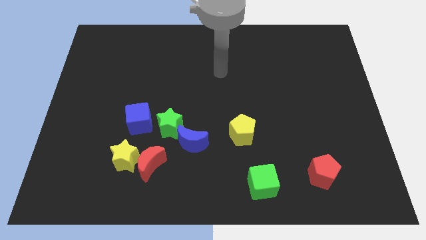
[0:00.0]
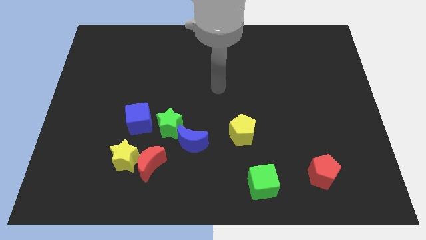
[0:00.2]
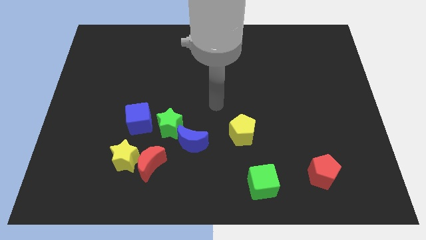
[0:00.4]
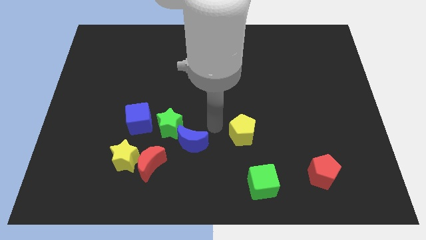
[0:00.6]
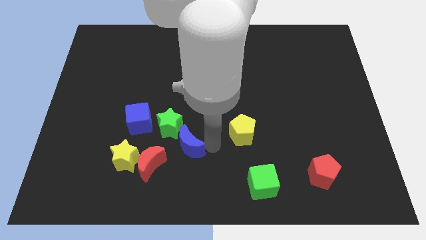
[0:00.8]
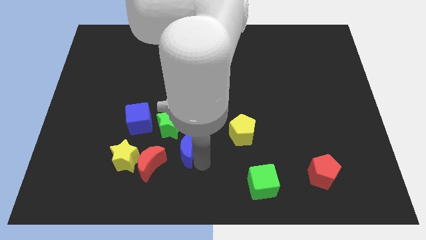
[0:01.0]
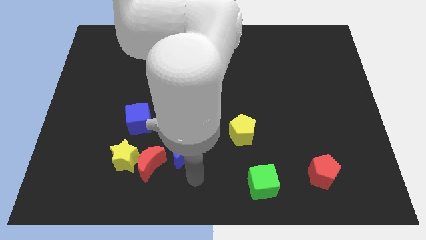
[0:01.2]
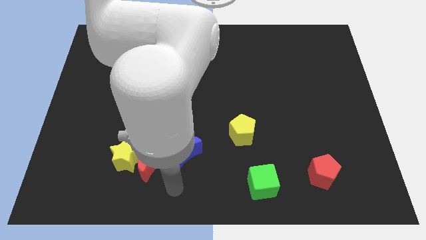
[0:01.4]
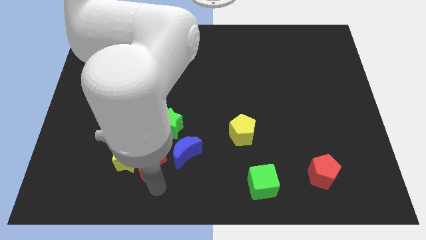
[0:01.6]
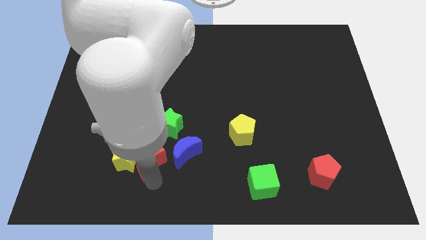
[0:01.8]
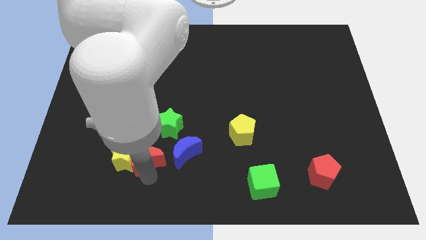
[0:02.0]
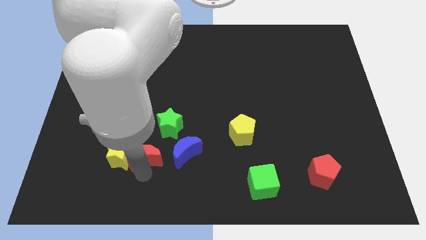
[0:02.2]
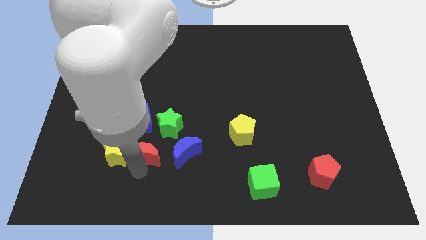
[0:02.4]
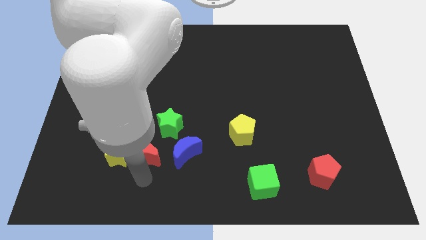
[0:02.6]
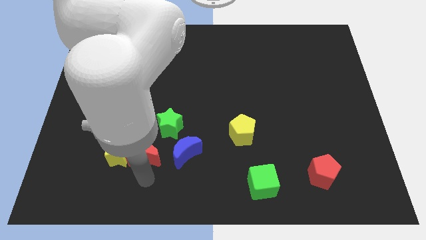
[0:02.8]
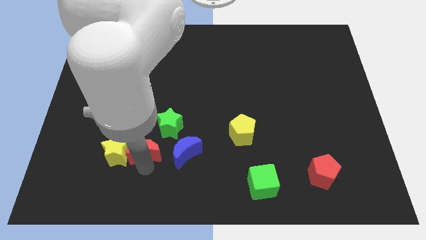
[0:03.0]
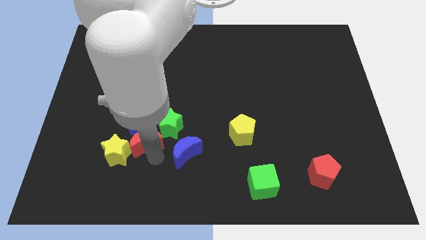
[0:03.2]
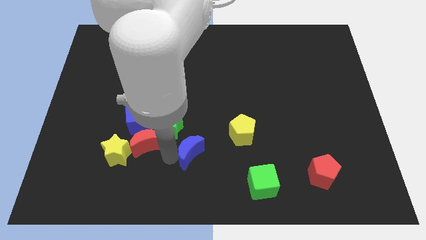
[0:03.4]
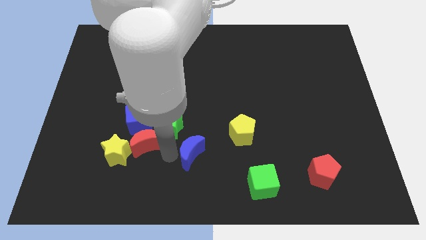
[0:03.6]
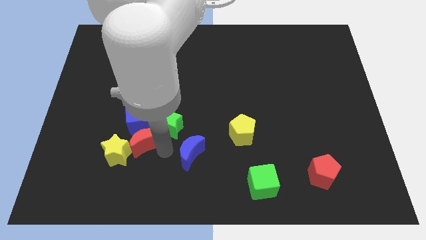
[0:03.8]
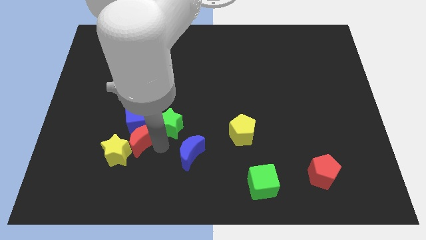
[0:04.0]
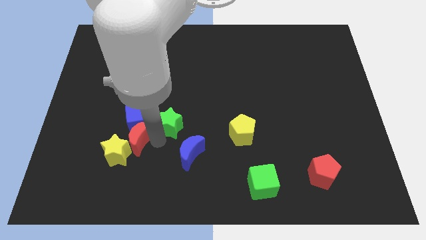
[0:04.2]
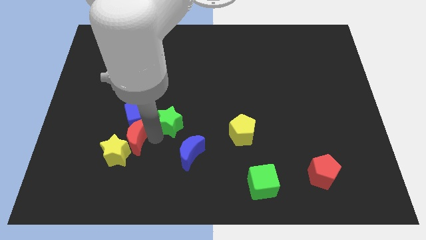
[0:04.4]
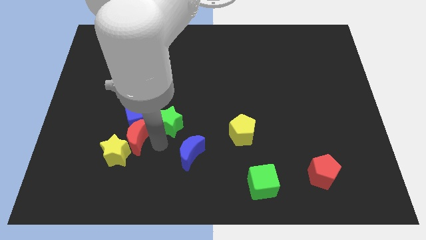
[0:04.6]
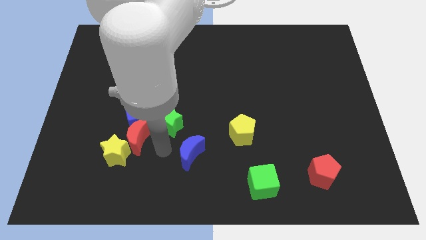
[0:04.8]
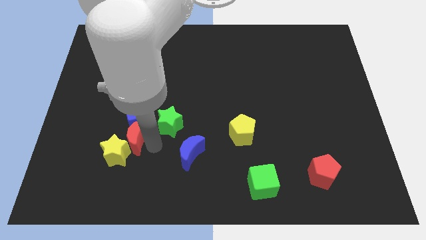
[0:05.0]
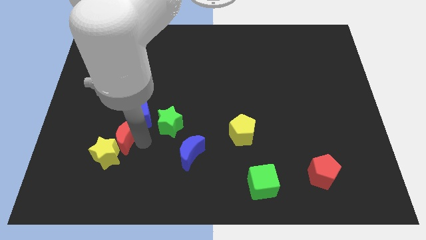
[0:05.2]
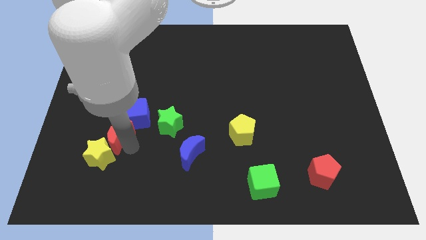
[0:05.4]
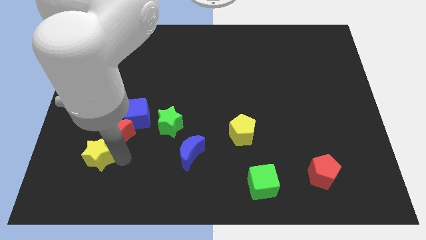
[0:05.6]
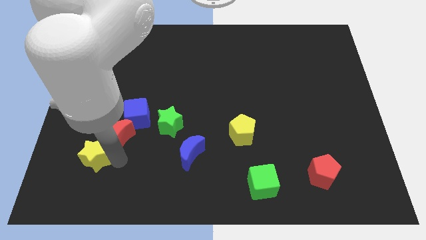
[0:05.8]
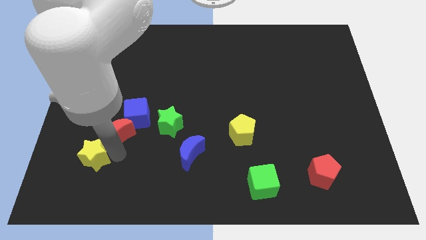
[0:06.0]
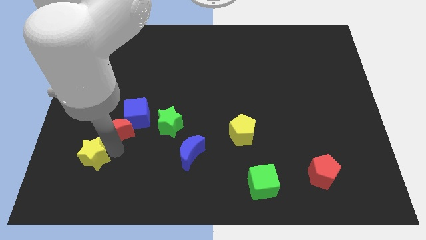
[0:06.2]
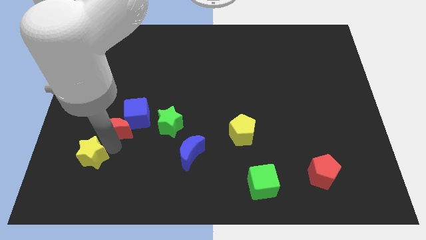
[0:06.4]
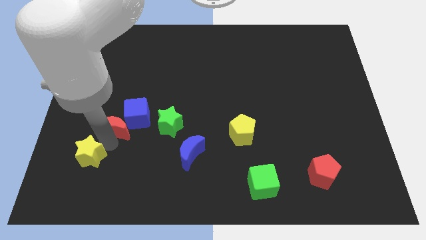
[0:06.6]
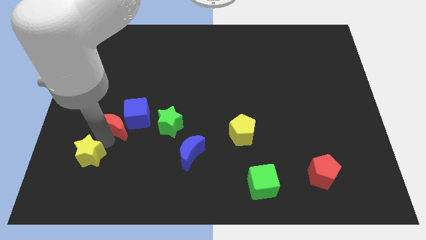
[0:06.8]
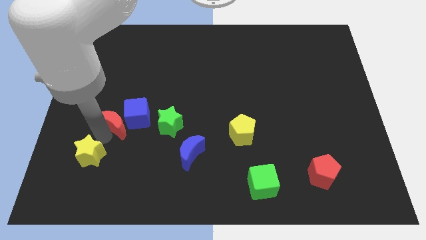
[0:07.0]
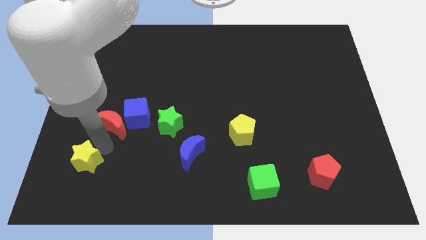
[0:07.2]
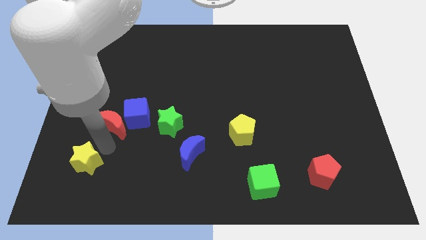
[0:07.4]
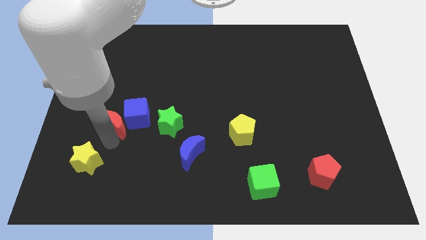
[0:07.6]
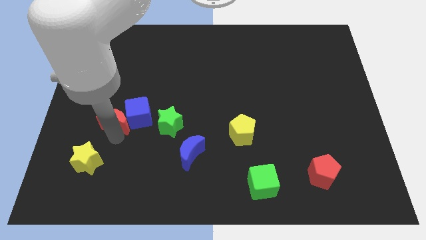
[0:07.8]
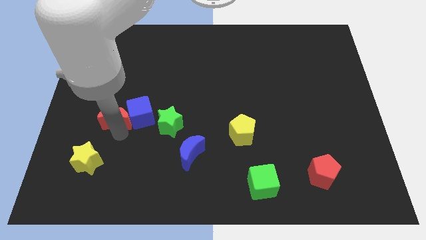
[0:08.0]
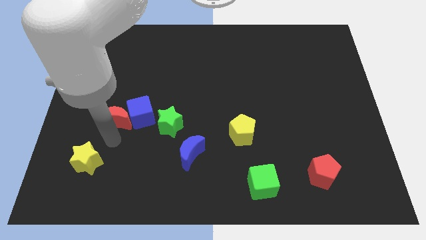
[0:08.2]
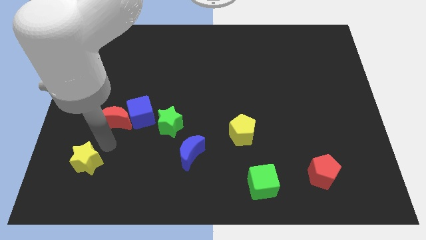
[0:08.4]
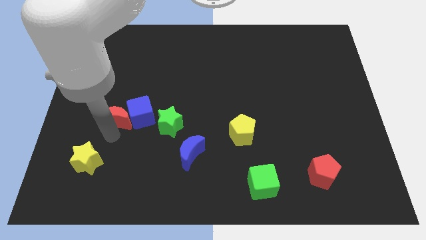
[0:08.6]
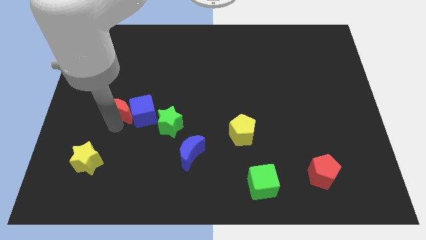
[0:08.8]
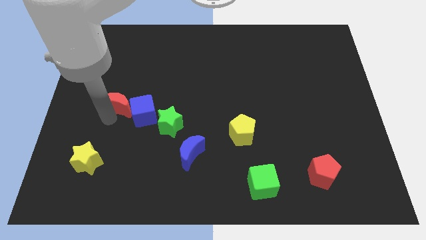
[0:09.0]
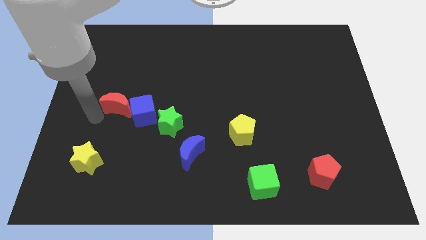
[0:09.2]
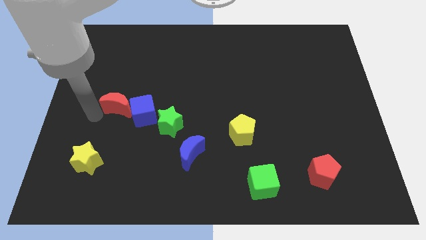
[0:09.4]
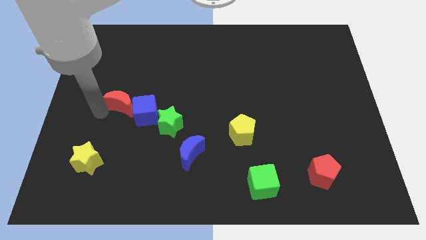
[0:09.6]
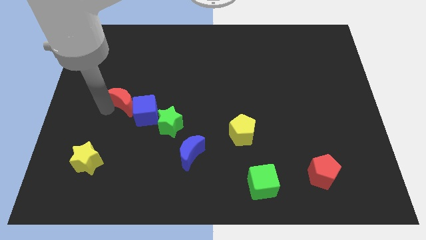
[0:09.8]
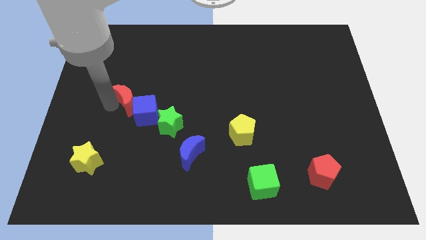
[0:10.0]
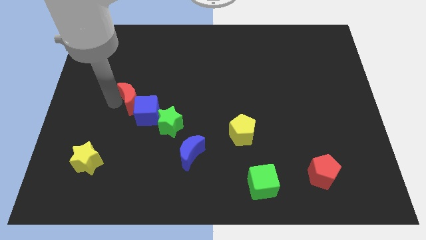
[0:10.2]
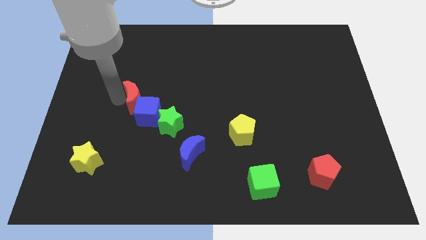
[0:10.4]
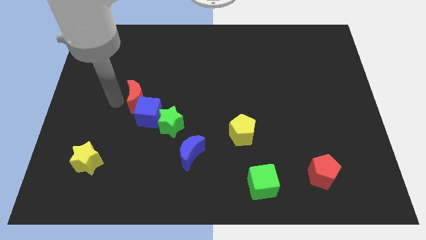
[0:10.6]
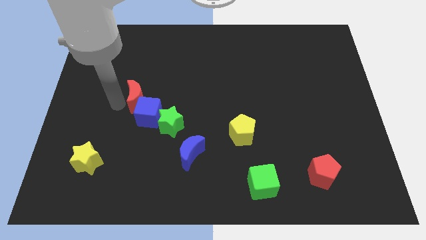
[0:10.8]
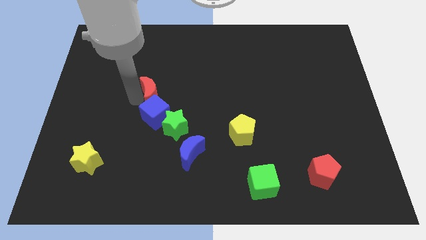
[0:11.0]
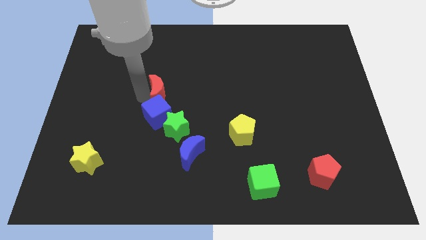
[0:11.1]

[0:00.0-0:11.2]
put the red moon to the top side of the green star

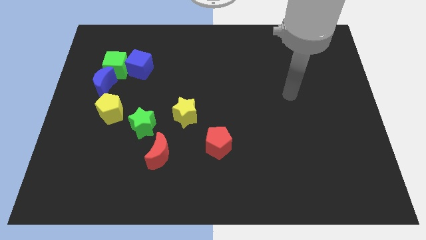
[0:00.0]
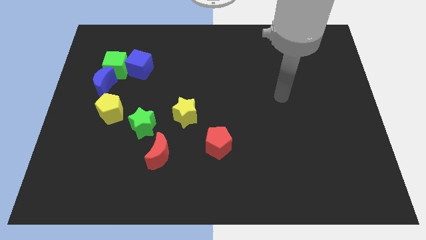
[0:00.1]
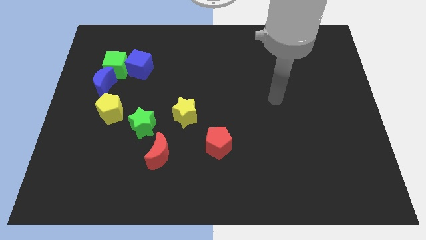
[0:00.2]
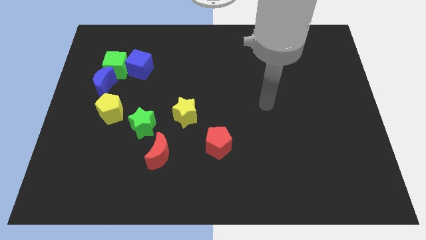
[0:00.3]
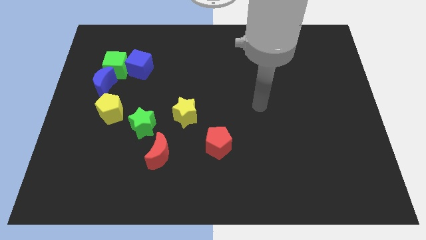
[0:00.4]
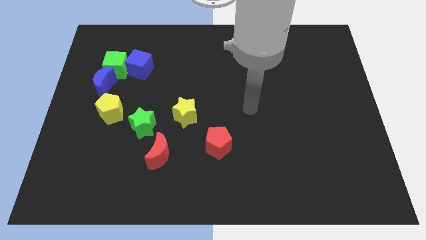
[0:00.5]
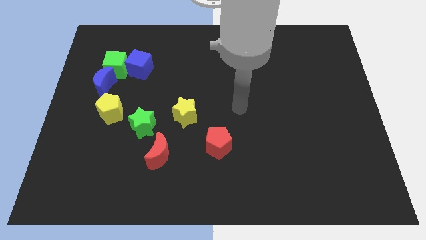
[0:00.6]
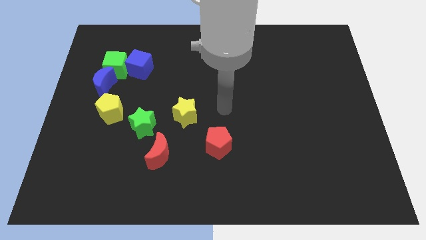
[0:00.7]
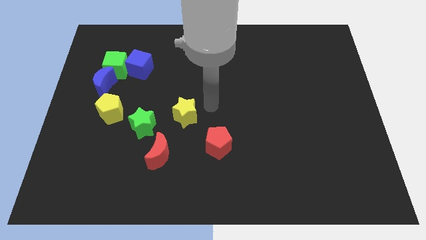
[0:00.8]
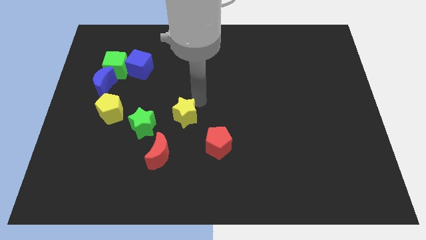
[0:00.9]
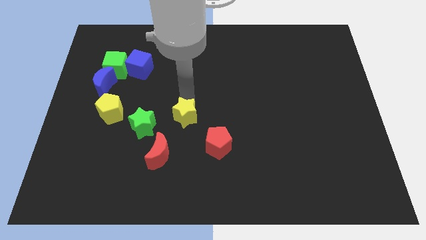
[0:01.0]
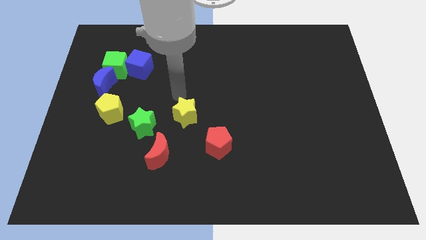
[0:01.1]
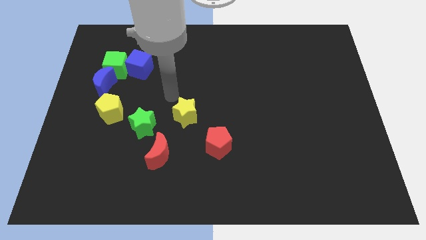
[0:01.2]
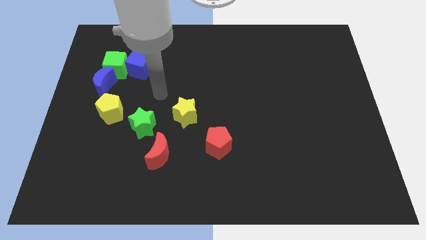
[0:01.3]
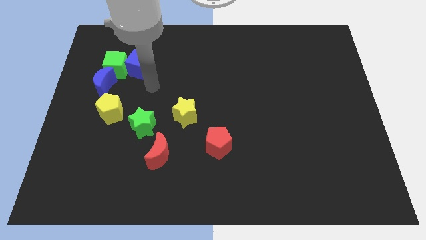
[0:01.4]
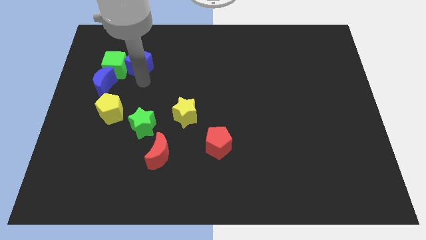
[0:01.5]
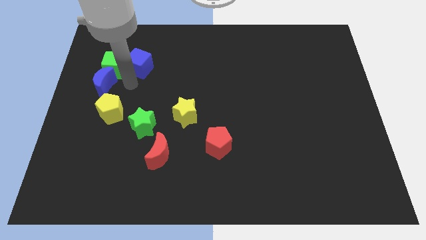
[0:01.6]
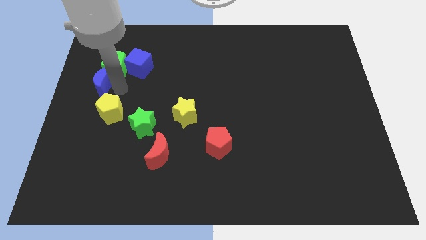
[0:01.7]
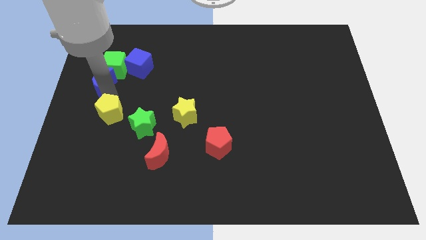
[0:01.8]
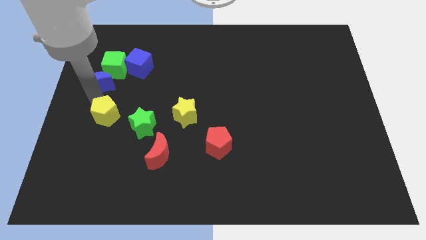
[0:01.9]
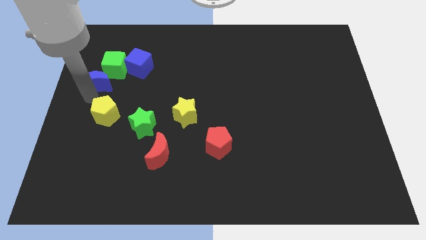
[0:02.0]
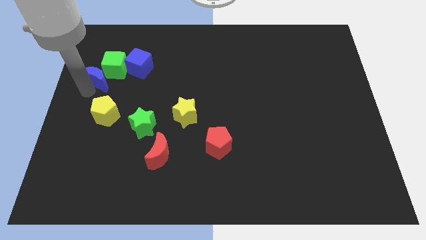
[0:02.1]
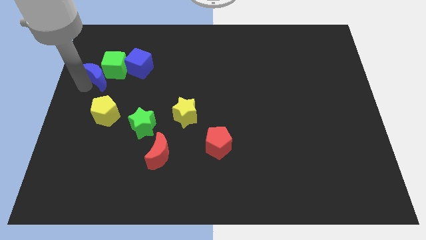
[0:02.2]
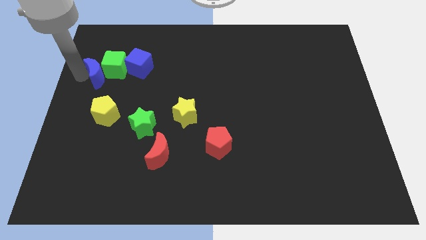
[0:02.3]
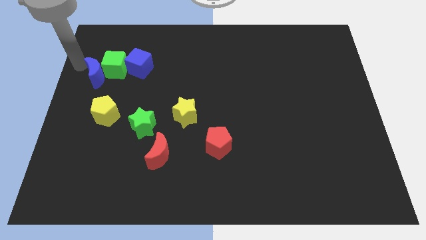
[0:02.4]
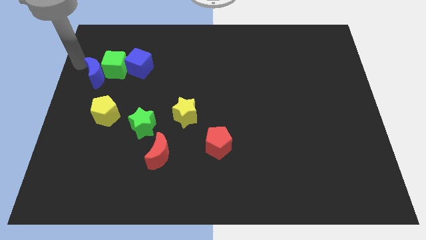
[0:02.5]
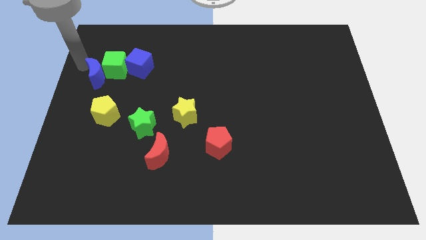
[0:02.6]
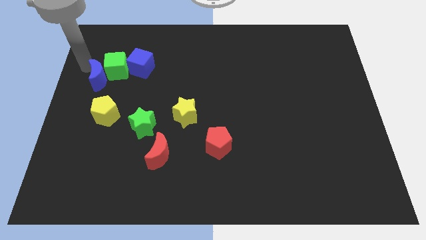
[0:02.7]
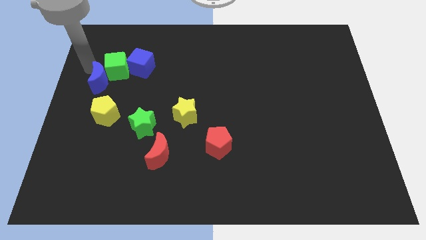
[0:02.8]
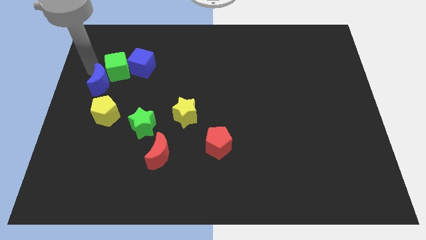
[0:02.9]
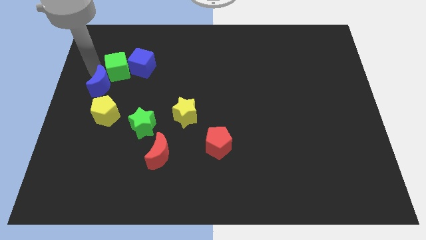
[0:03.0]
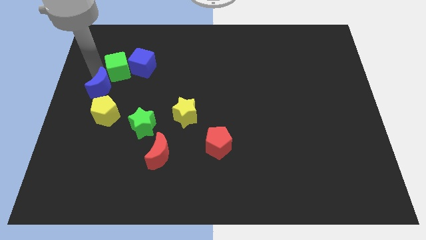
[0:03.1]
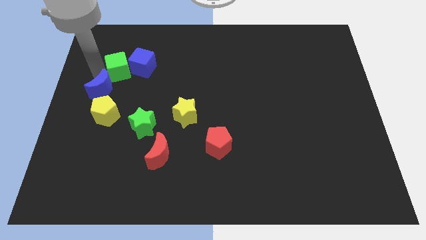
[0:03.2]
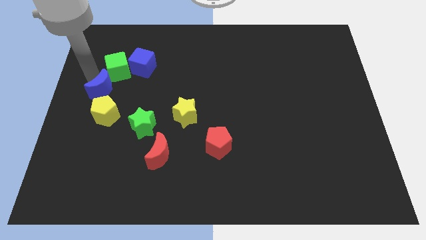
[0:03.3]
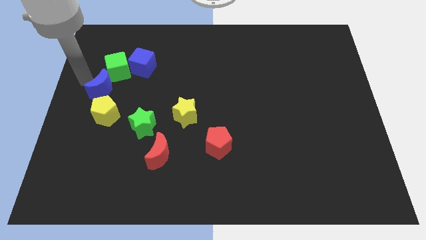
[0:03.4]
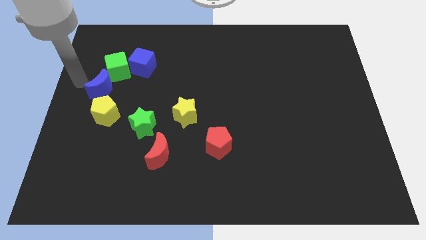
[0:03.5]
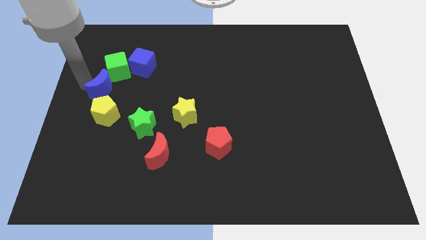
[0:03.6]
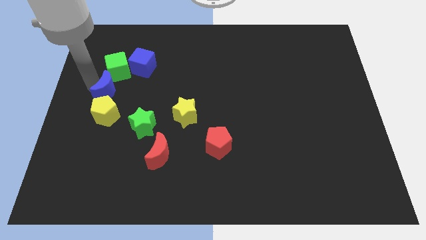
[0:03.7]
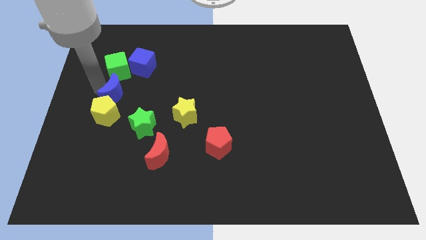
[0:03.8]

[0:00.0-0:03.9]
move the blue moon to the top right side of the yellow pentagon
